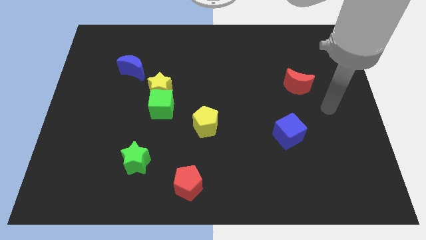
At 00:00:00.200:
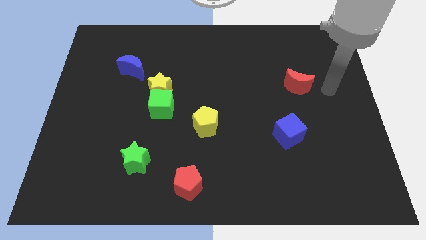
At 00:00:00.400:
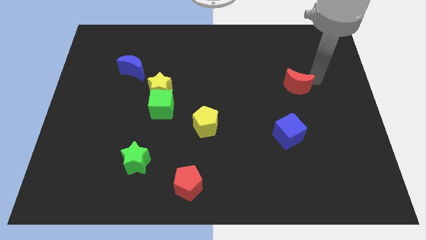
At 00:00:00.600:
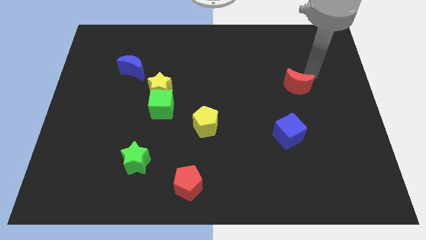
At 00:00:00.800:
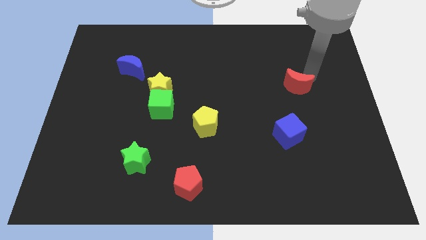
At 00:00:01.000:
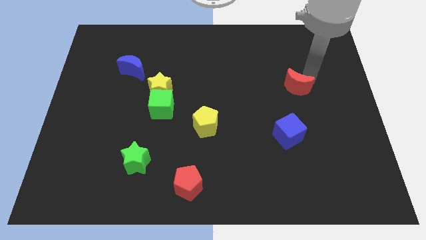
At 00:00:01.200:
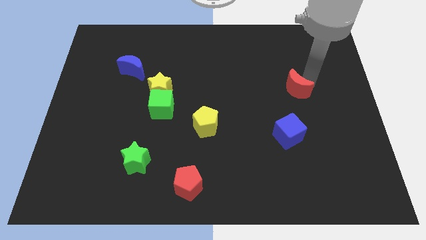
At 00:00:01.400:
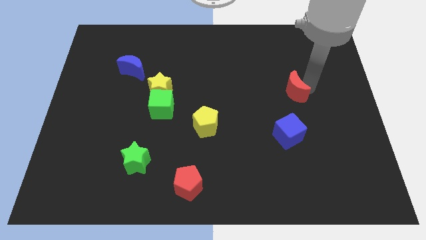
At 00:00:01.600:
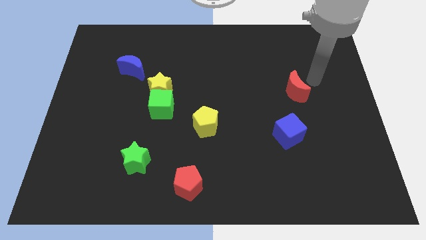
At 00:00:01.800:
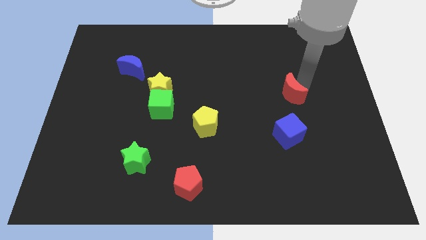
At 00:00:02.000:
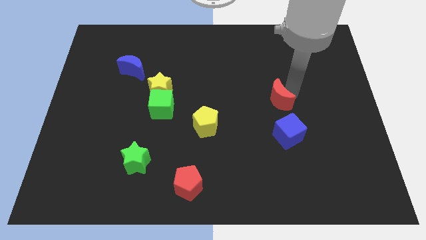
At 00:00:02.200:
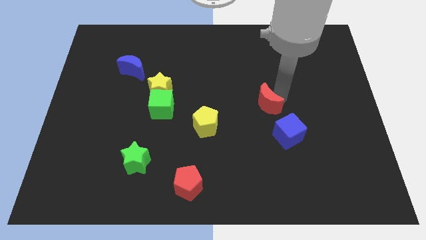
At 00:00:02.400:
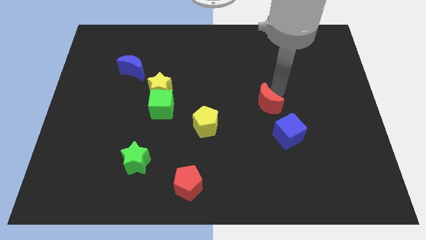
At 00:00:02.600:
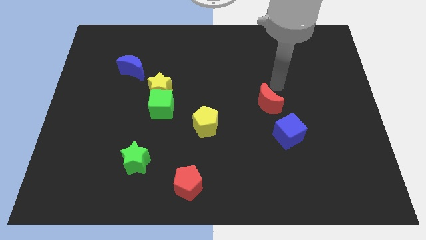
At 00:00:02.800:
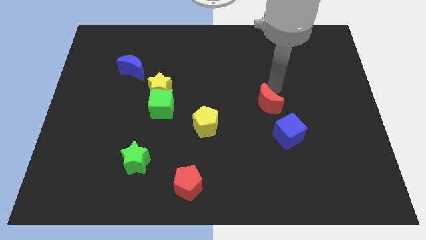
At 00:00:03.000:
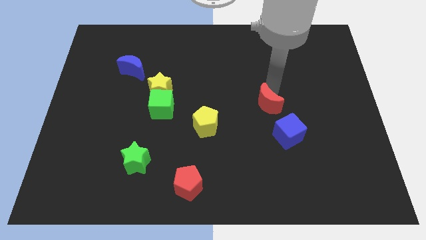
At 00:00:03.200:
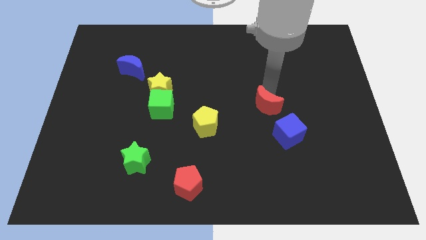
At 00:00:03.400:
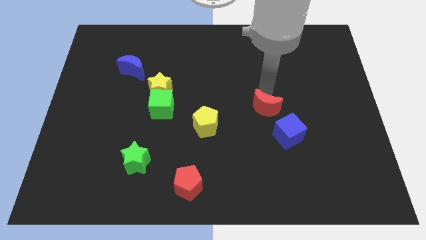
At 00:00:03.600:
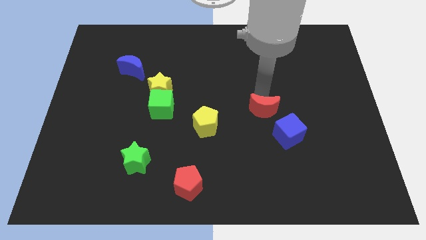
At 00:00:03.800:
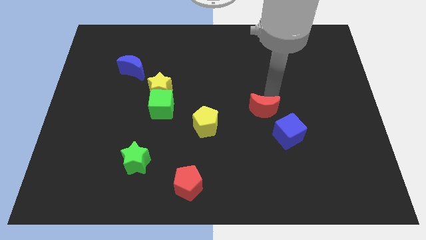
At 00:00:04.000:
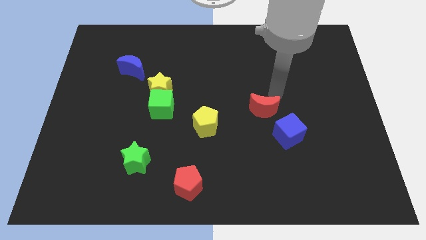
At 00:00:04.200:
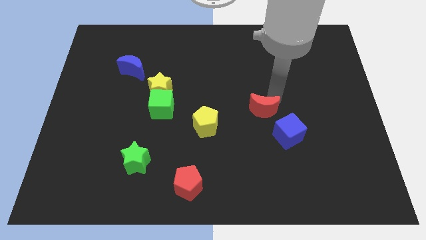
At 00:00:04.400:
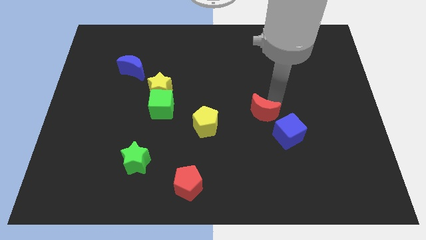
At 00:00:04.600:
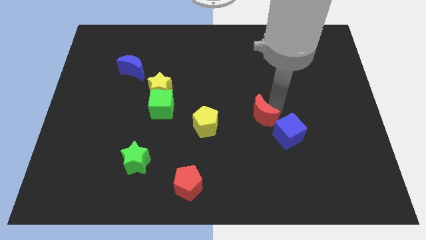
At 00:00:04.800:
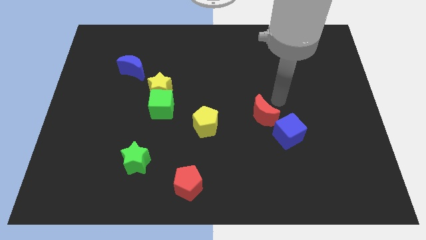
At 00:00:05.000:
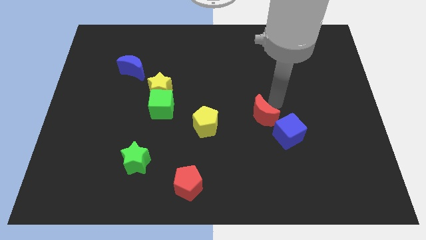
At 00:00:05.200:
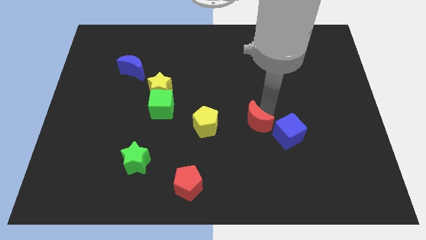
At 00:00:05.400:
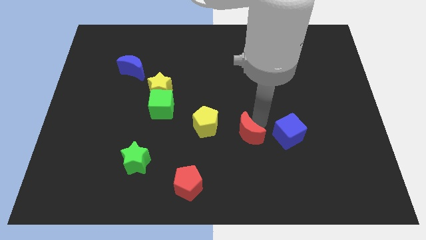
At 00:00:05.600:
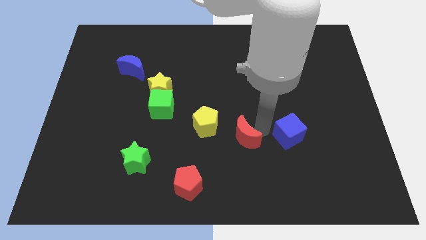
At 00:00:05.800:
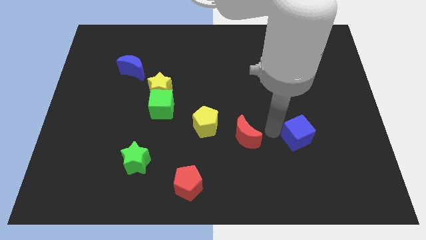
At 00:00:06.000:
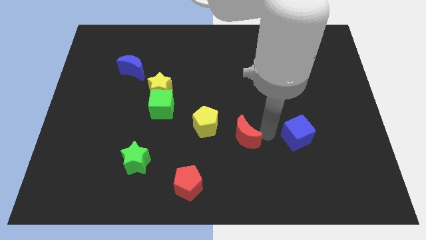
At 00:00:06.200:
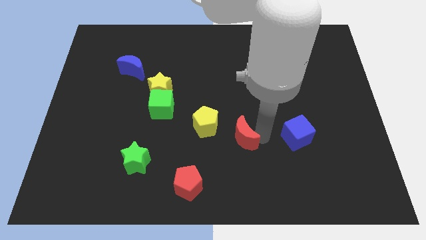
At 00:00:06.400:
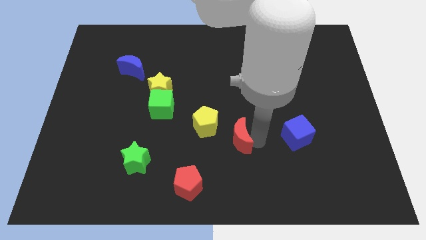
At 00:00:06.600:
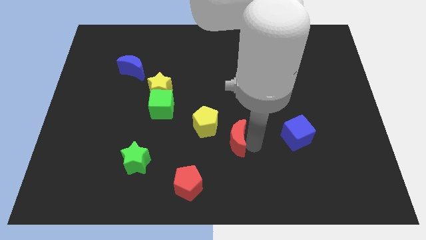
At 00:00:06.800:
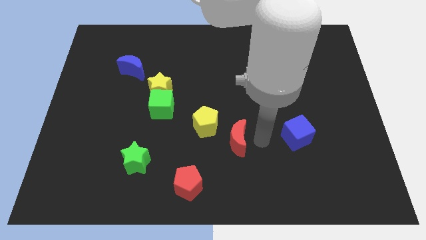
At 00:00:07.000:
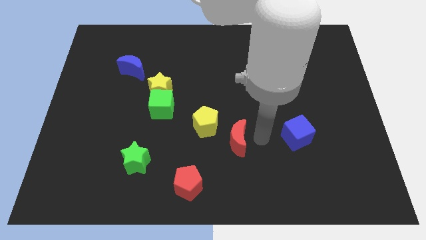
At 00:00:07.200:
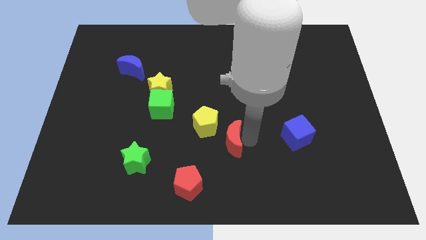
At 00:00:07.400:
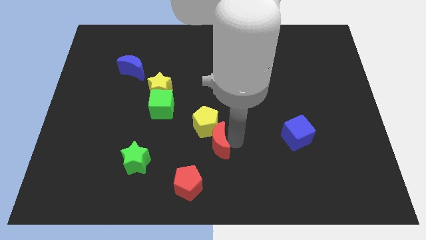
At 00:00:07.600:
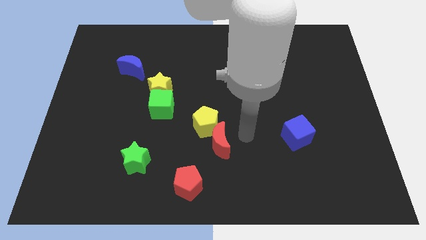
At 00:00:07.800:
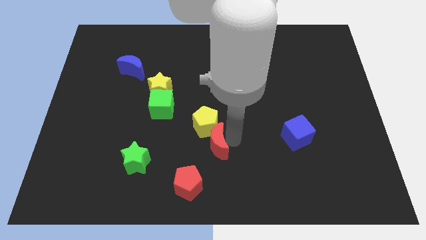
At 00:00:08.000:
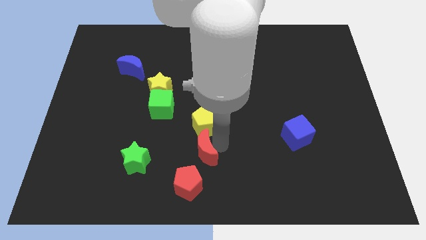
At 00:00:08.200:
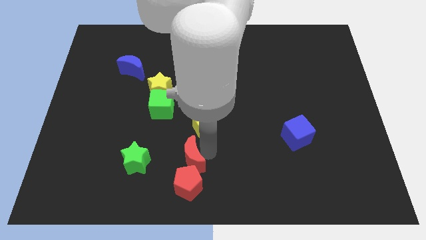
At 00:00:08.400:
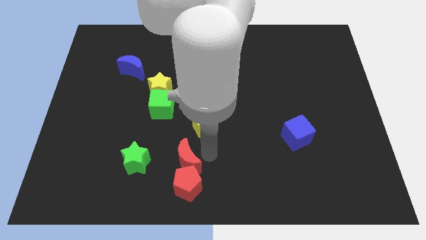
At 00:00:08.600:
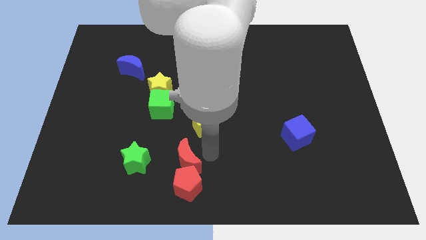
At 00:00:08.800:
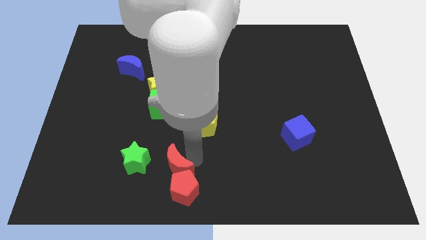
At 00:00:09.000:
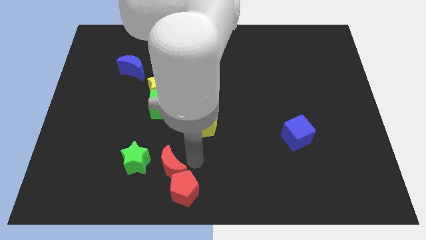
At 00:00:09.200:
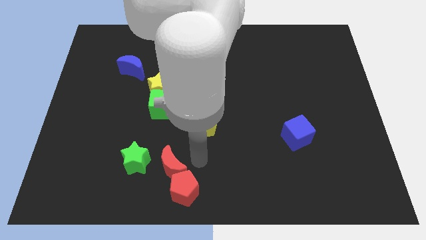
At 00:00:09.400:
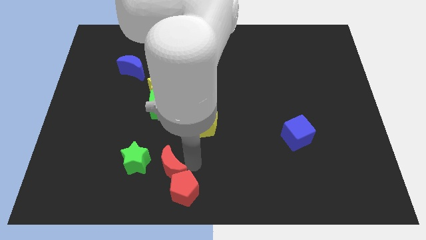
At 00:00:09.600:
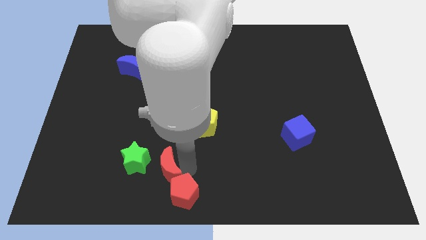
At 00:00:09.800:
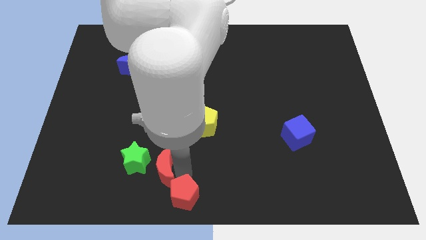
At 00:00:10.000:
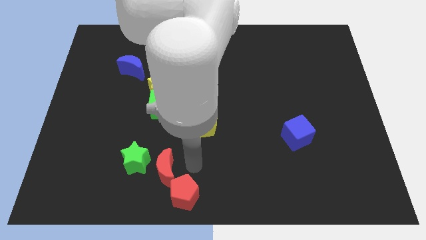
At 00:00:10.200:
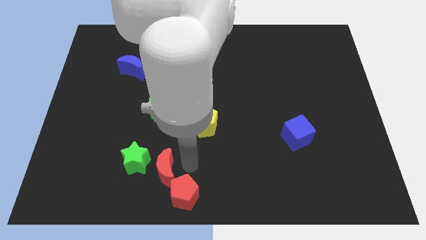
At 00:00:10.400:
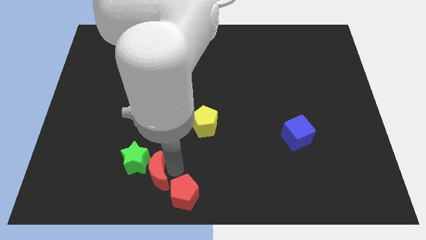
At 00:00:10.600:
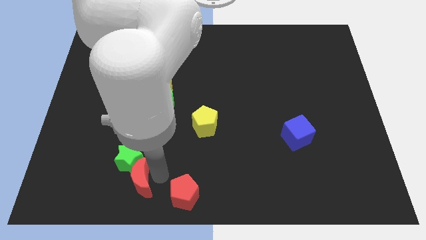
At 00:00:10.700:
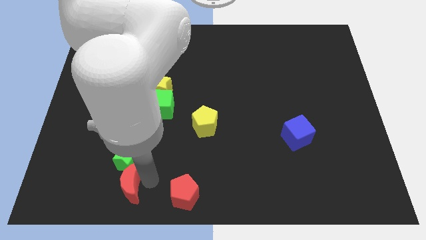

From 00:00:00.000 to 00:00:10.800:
put the red moon diagonally down and to the left of the green star

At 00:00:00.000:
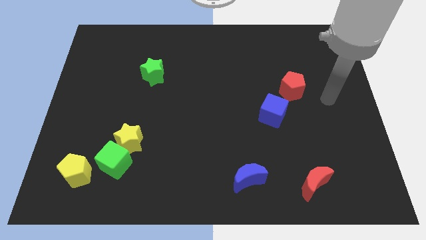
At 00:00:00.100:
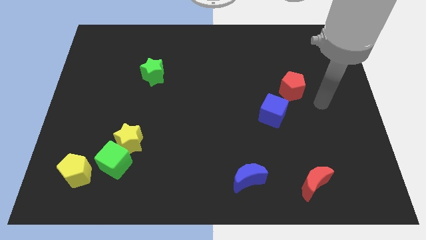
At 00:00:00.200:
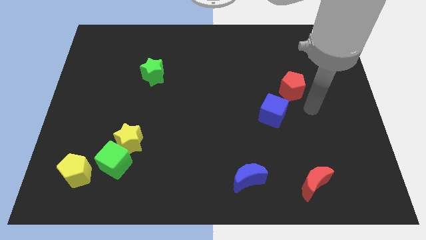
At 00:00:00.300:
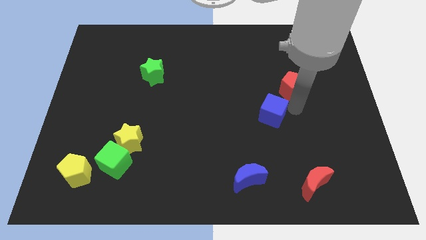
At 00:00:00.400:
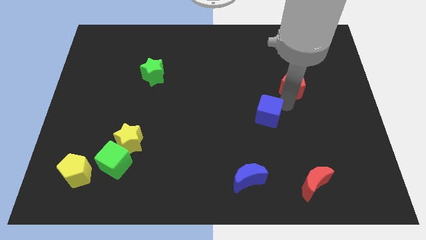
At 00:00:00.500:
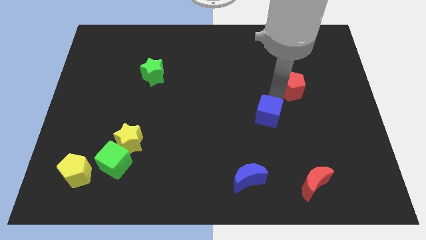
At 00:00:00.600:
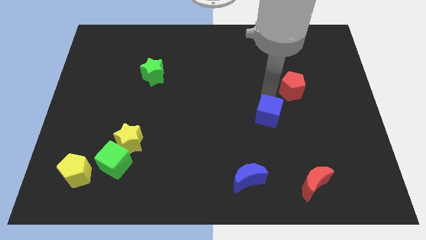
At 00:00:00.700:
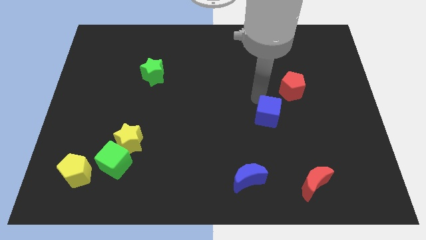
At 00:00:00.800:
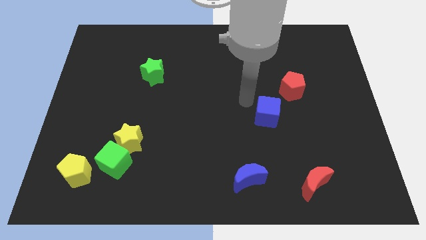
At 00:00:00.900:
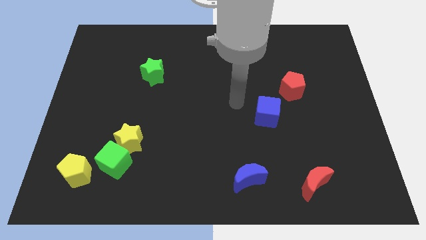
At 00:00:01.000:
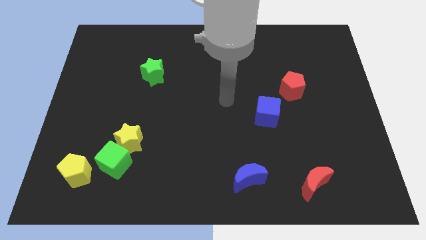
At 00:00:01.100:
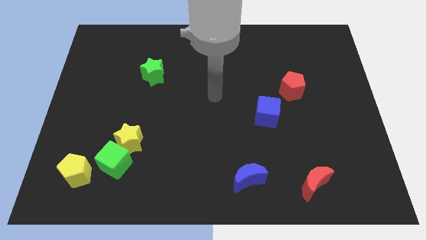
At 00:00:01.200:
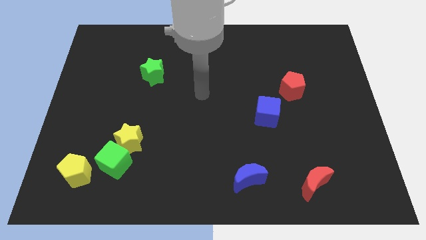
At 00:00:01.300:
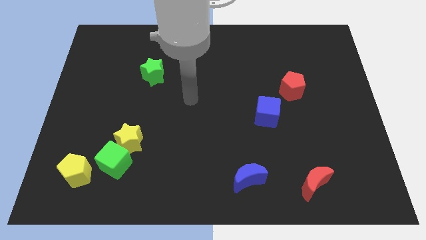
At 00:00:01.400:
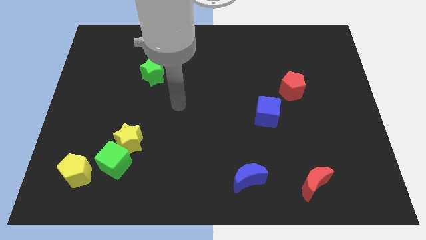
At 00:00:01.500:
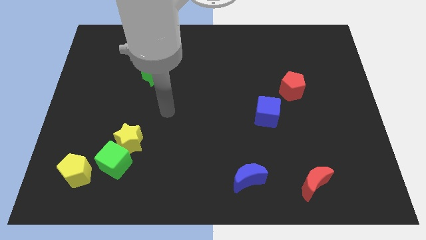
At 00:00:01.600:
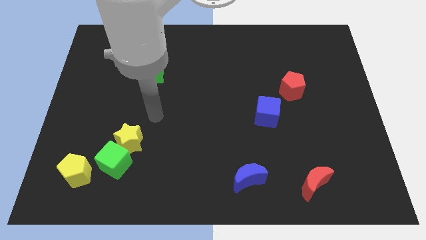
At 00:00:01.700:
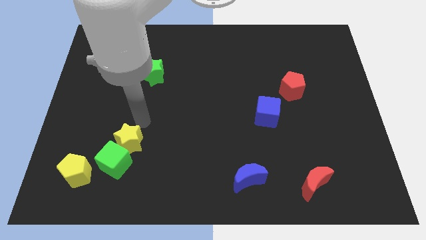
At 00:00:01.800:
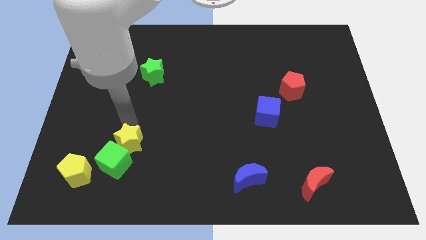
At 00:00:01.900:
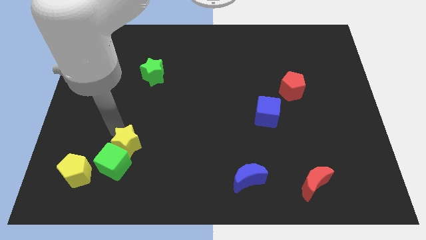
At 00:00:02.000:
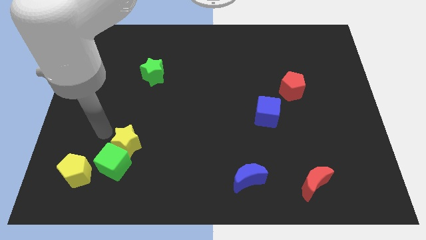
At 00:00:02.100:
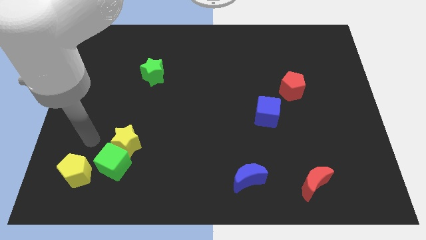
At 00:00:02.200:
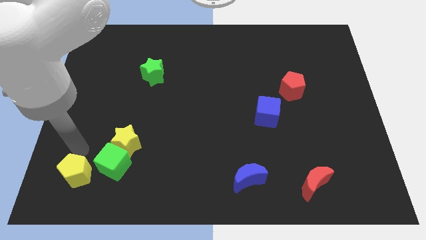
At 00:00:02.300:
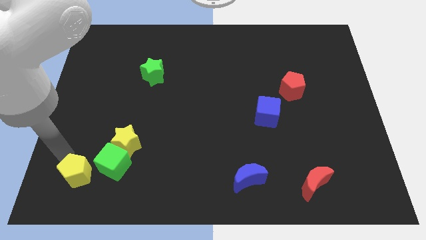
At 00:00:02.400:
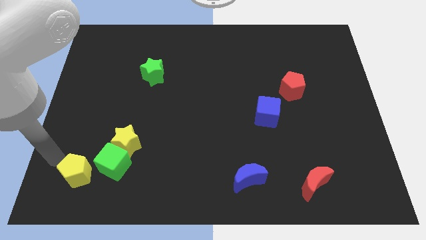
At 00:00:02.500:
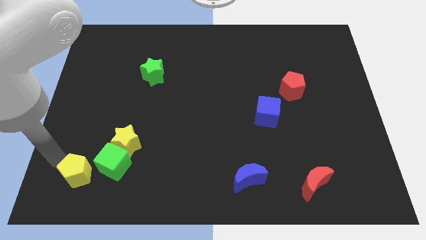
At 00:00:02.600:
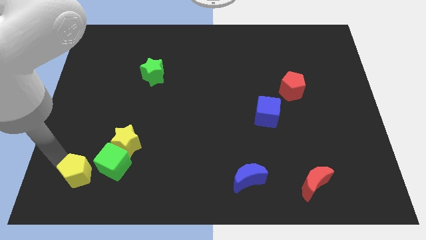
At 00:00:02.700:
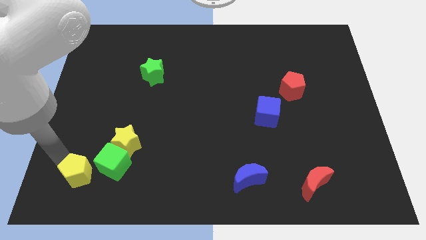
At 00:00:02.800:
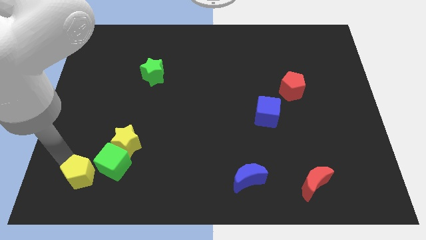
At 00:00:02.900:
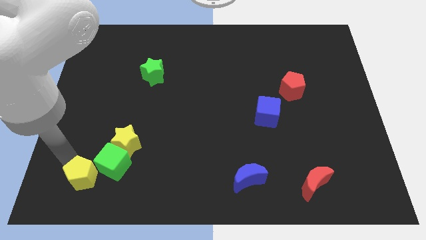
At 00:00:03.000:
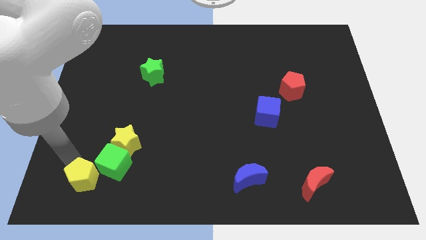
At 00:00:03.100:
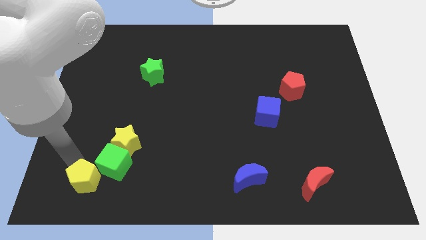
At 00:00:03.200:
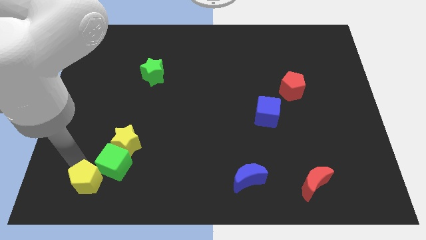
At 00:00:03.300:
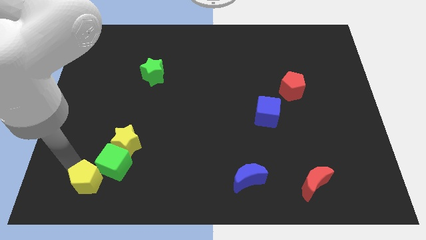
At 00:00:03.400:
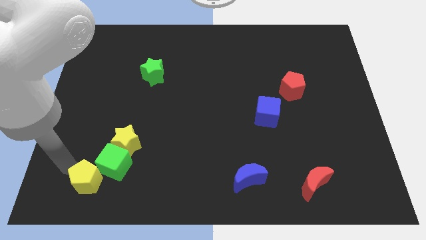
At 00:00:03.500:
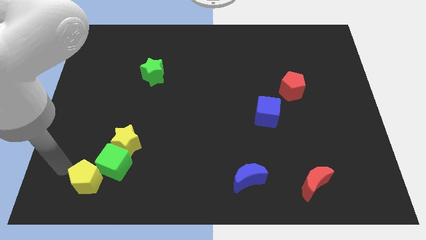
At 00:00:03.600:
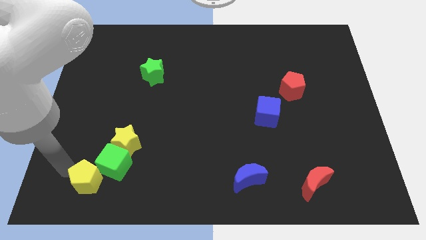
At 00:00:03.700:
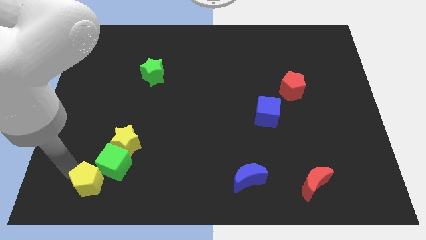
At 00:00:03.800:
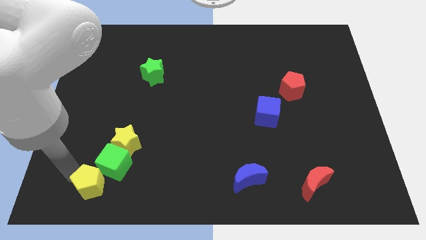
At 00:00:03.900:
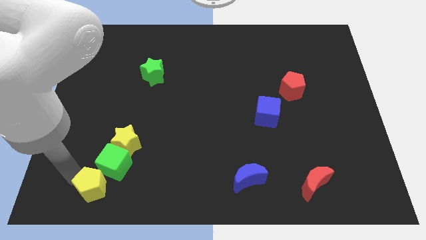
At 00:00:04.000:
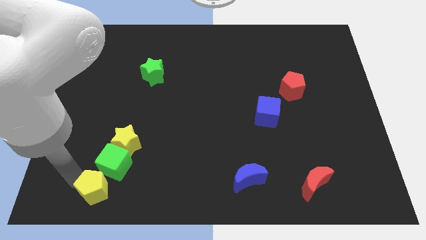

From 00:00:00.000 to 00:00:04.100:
put the yellow pentagon to the bottom side of the yellow star
